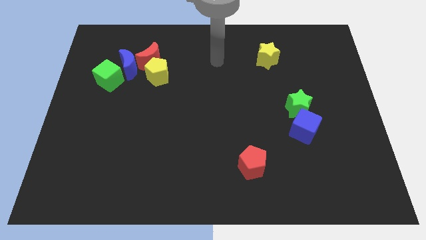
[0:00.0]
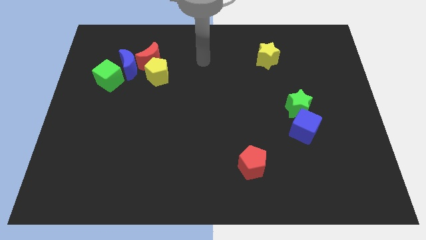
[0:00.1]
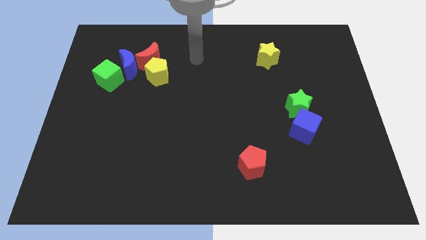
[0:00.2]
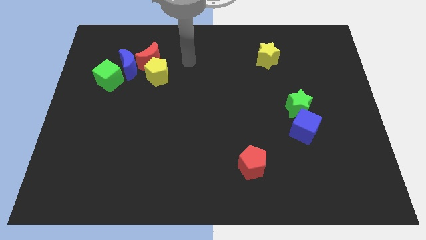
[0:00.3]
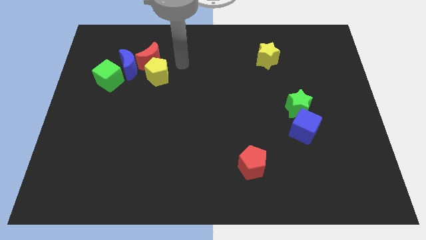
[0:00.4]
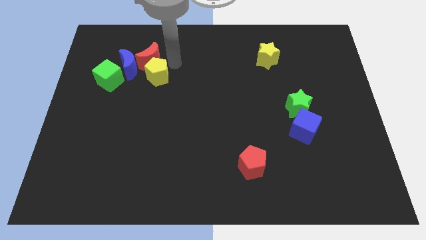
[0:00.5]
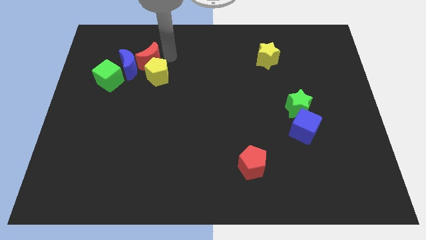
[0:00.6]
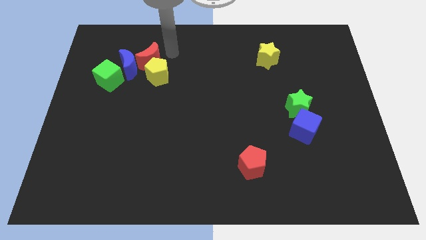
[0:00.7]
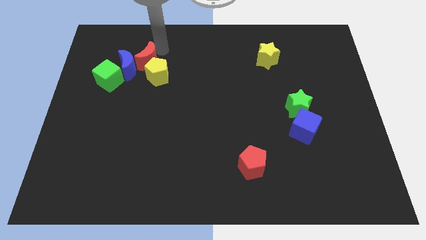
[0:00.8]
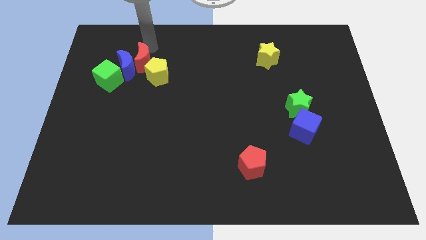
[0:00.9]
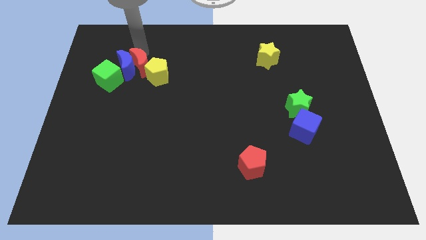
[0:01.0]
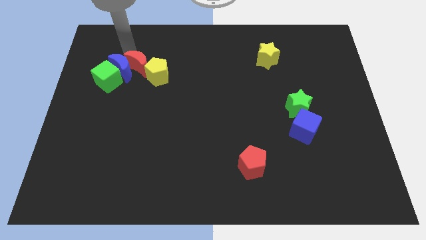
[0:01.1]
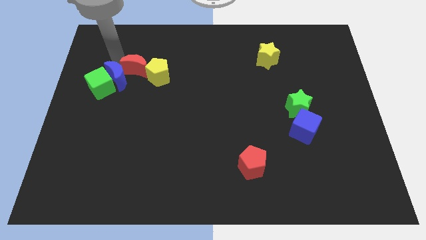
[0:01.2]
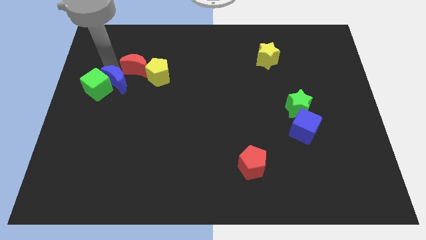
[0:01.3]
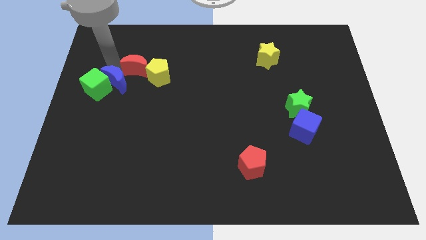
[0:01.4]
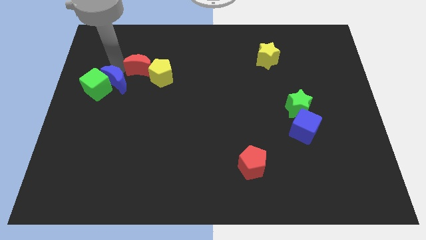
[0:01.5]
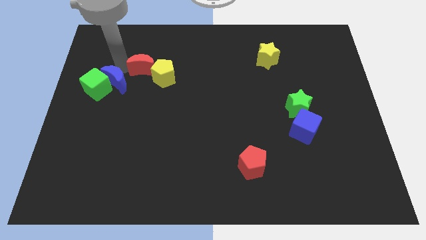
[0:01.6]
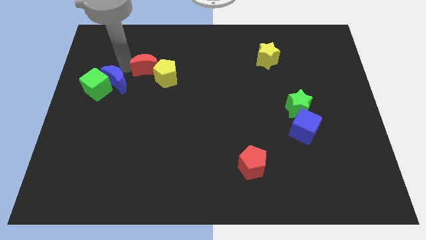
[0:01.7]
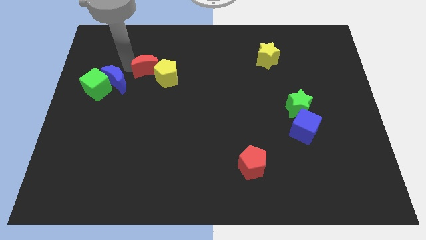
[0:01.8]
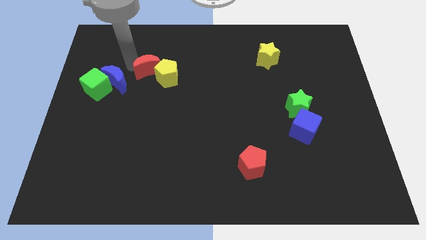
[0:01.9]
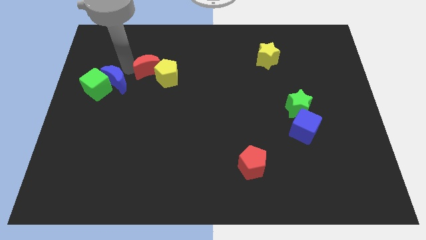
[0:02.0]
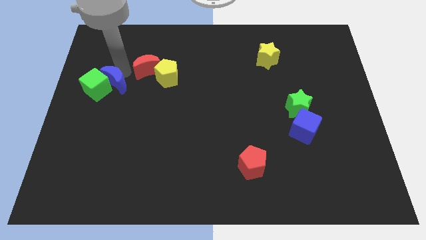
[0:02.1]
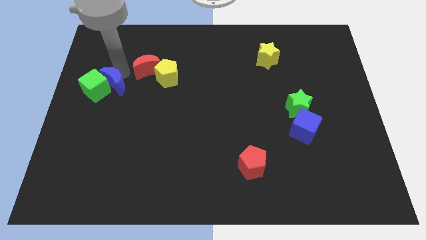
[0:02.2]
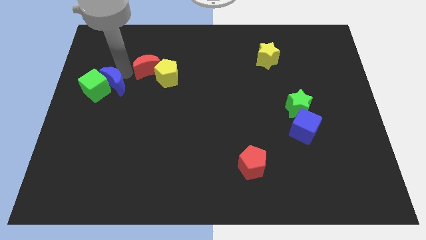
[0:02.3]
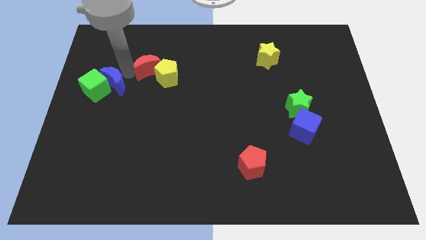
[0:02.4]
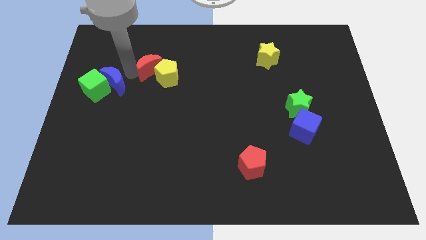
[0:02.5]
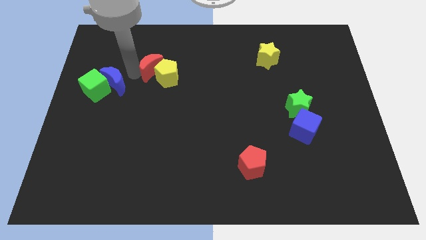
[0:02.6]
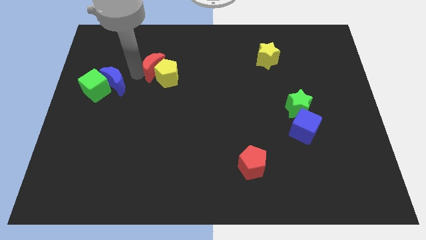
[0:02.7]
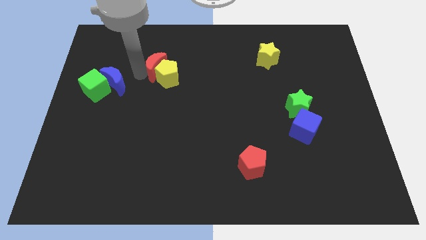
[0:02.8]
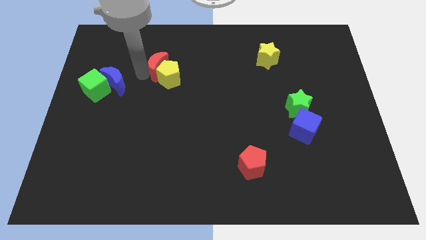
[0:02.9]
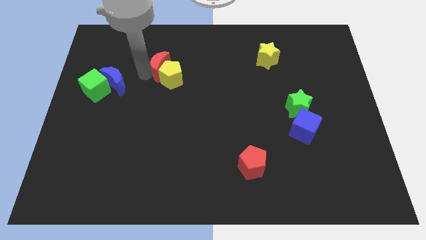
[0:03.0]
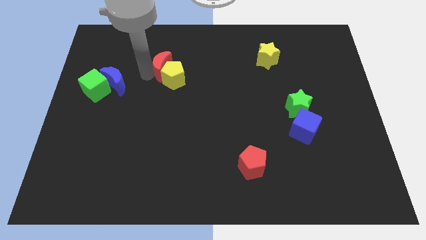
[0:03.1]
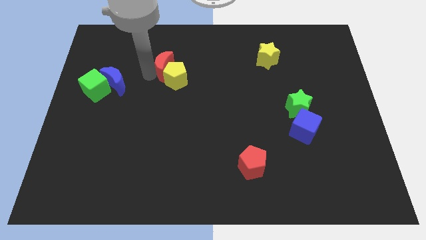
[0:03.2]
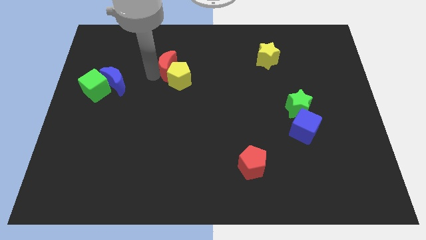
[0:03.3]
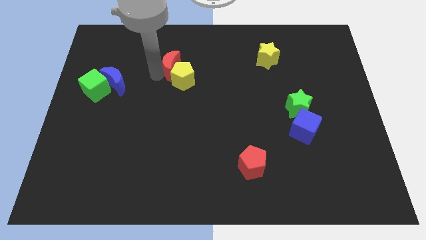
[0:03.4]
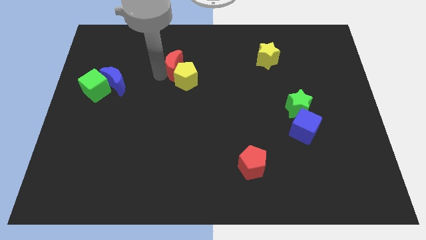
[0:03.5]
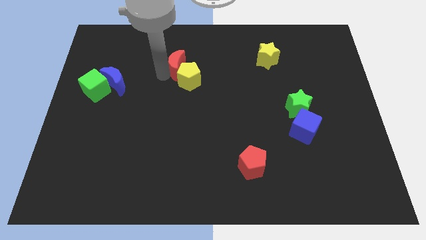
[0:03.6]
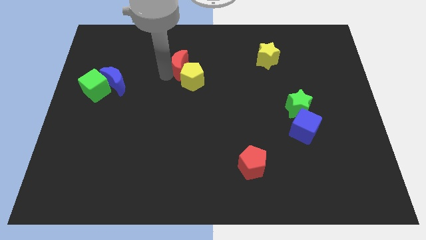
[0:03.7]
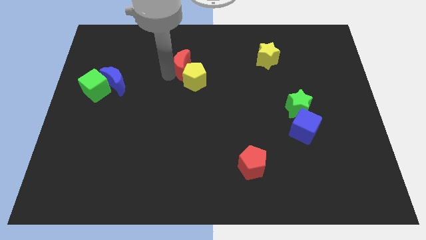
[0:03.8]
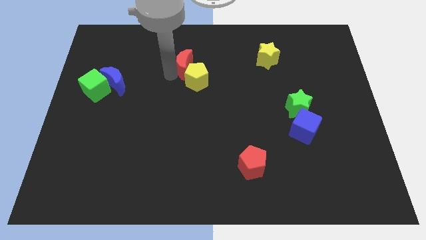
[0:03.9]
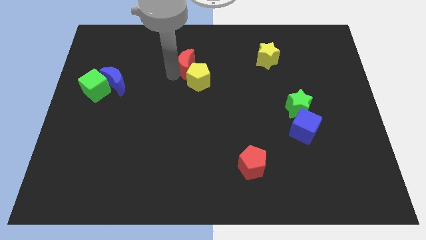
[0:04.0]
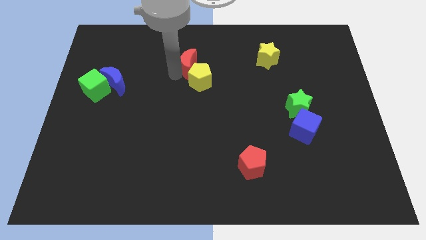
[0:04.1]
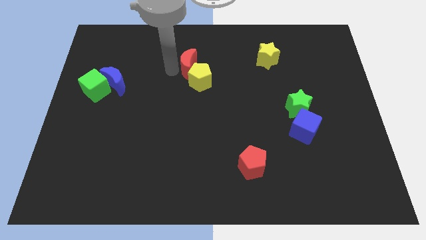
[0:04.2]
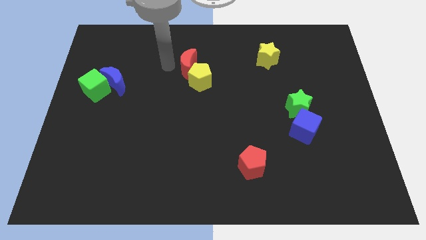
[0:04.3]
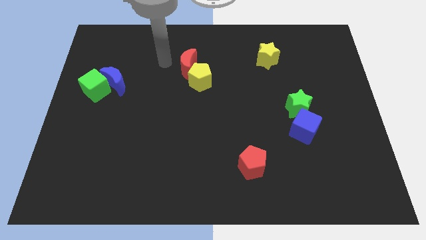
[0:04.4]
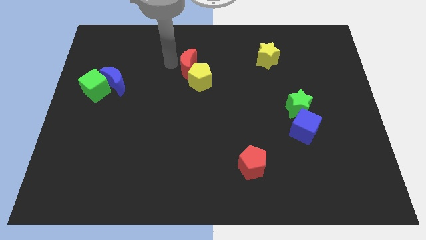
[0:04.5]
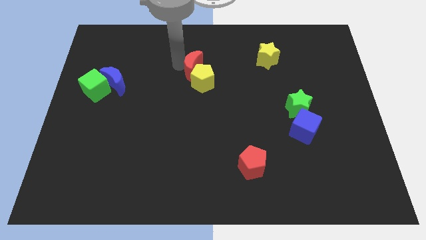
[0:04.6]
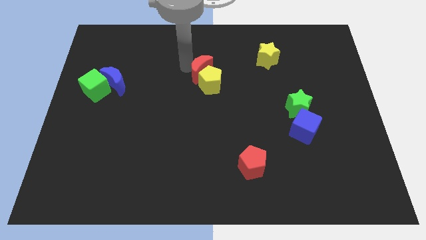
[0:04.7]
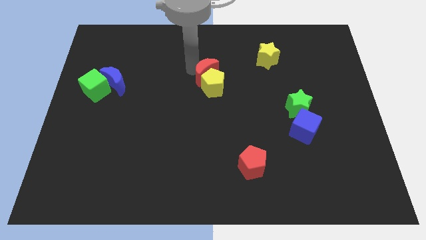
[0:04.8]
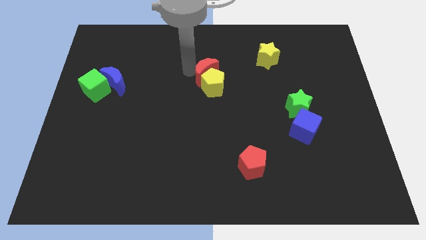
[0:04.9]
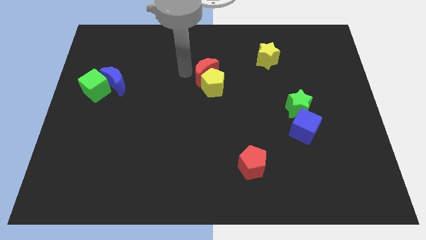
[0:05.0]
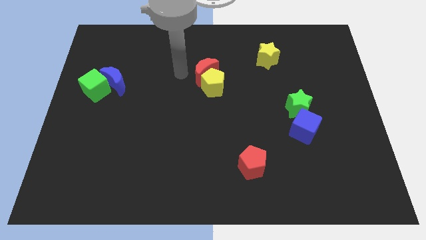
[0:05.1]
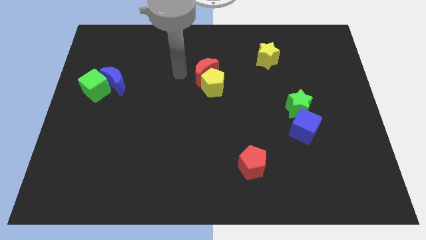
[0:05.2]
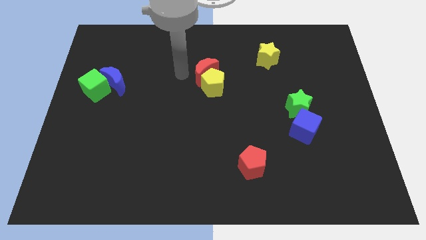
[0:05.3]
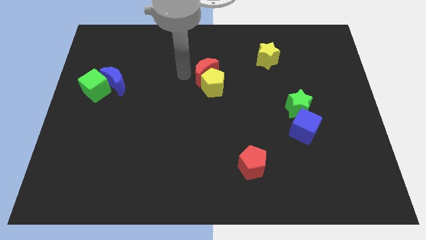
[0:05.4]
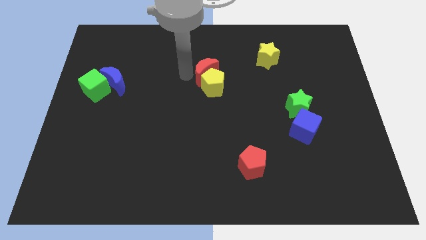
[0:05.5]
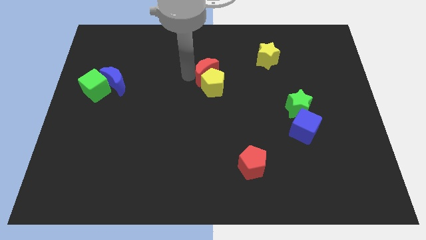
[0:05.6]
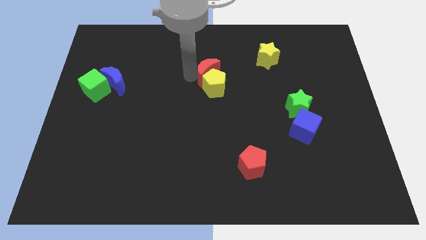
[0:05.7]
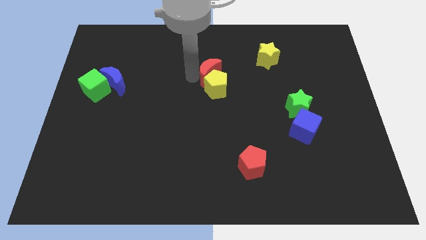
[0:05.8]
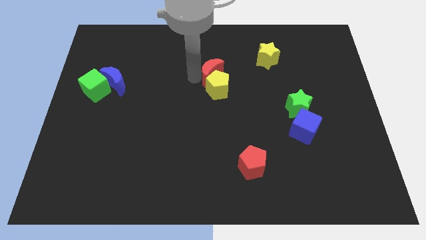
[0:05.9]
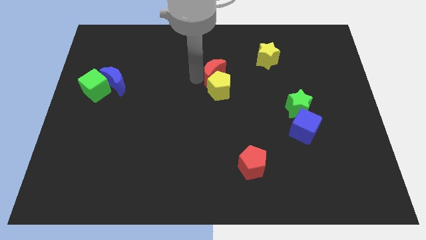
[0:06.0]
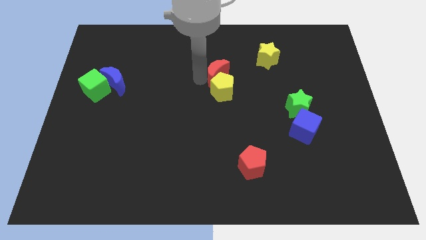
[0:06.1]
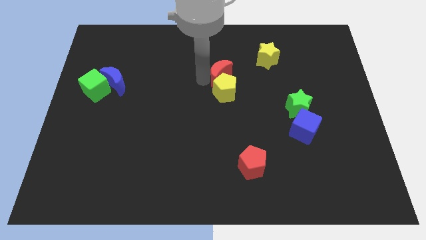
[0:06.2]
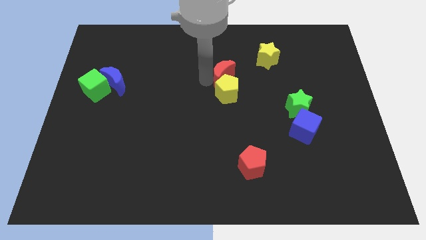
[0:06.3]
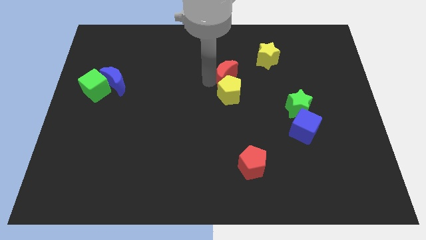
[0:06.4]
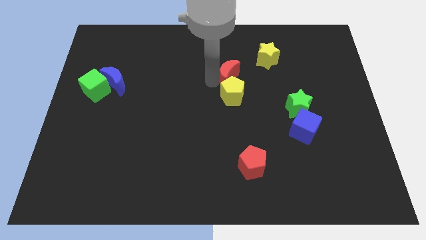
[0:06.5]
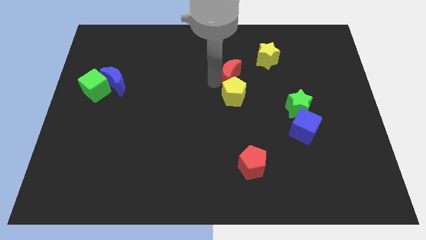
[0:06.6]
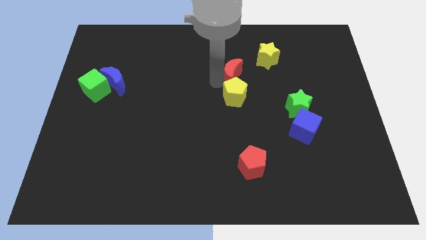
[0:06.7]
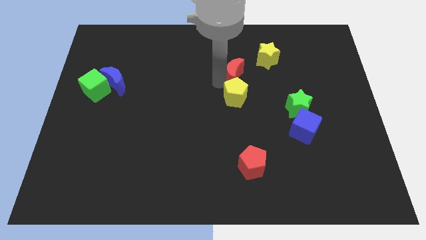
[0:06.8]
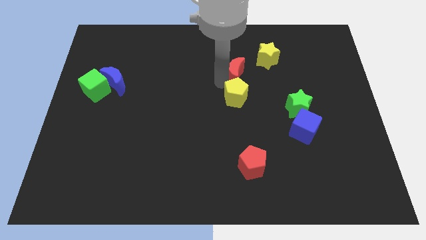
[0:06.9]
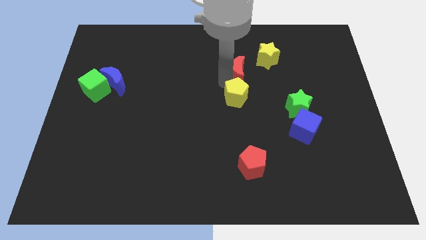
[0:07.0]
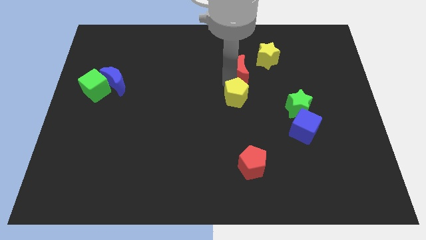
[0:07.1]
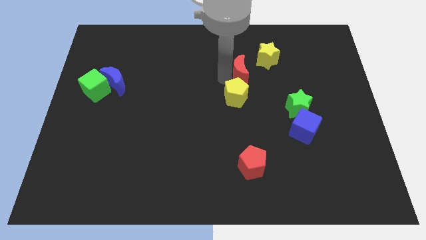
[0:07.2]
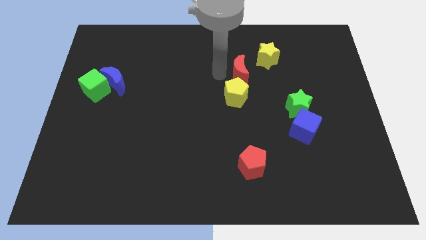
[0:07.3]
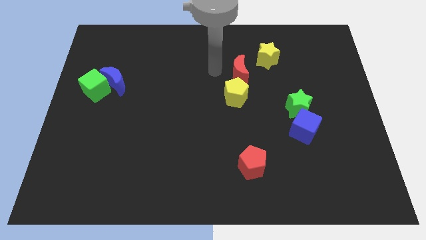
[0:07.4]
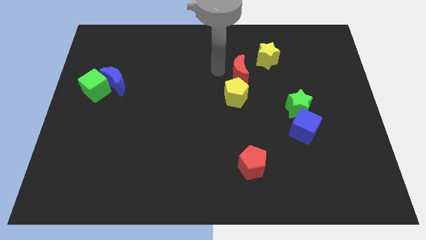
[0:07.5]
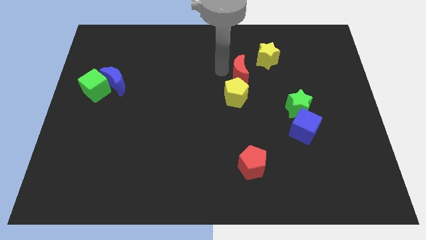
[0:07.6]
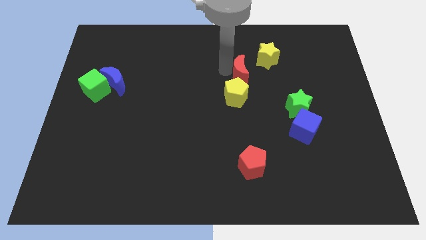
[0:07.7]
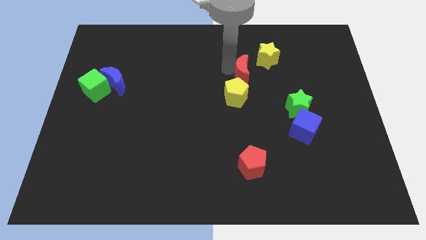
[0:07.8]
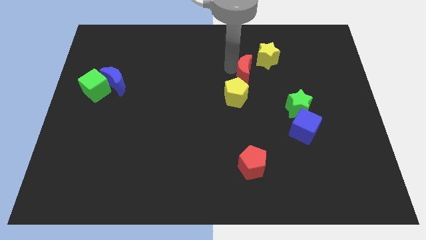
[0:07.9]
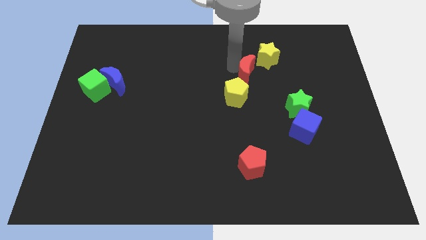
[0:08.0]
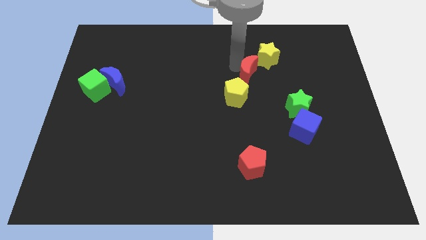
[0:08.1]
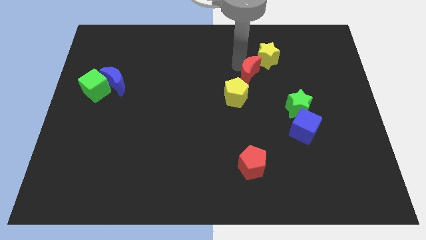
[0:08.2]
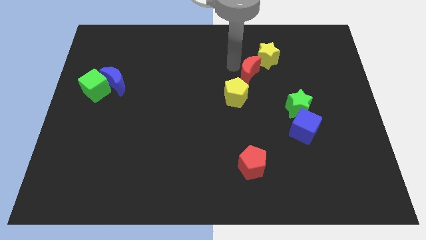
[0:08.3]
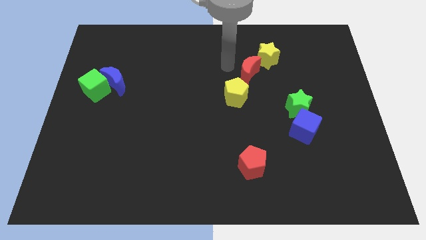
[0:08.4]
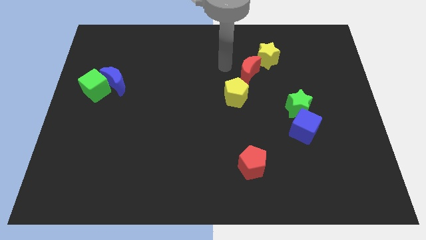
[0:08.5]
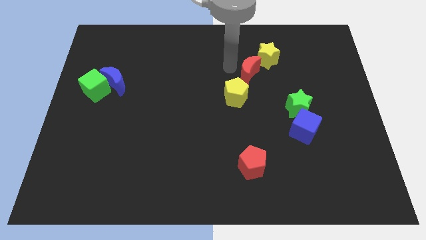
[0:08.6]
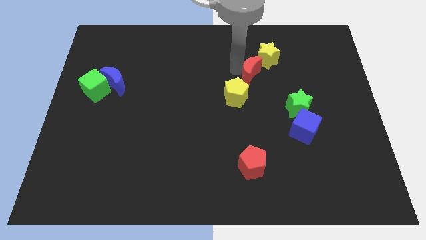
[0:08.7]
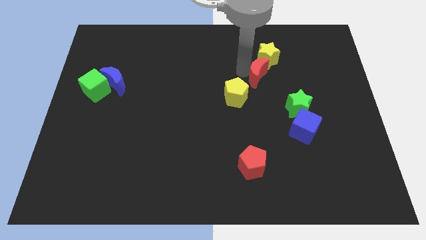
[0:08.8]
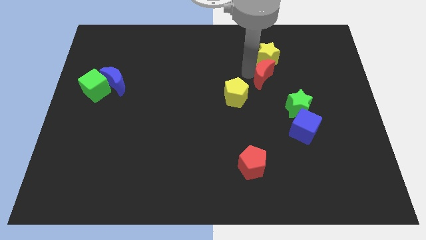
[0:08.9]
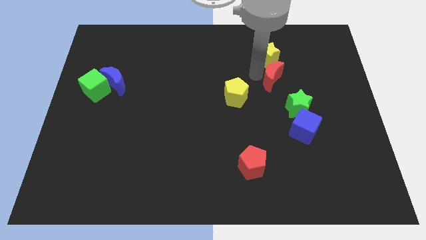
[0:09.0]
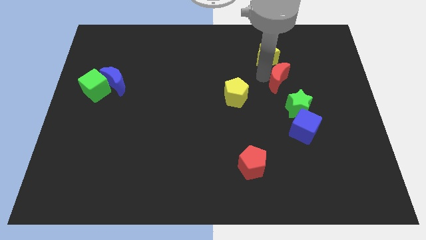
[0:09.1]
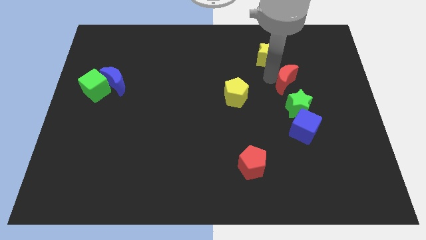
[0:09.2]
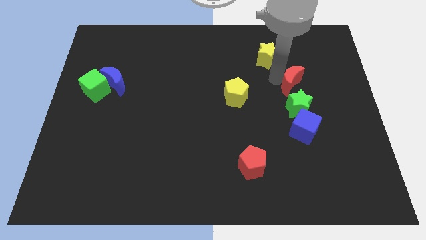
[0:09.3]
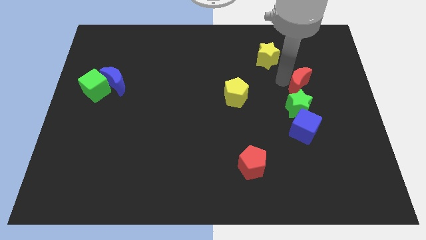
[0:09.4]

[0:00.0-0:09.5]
move the red moon to the top right side of the green star
